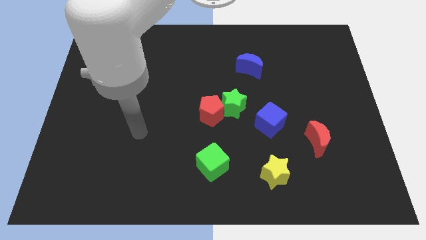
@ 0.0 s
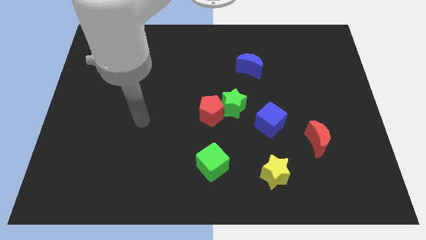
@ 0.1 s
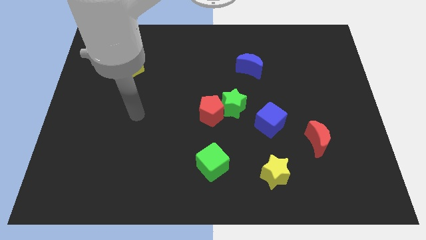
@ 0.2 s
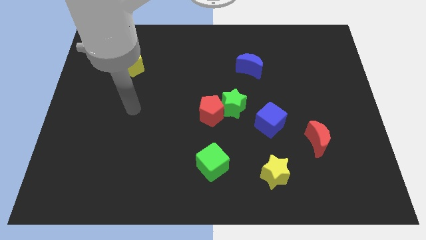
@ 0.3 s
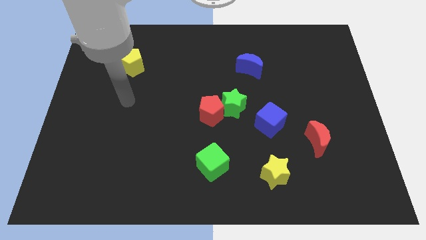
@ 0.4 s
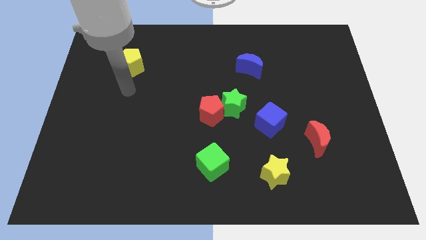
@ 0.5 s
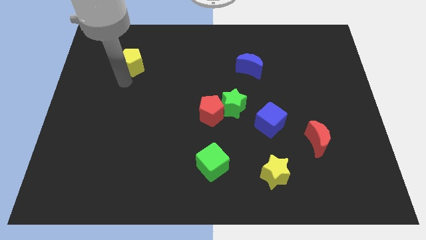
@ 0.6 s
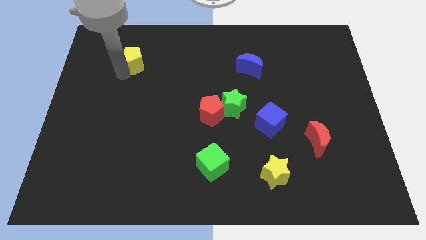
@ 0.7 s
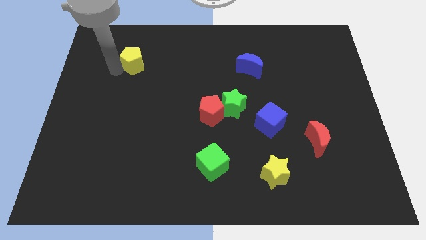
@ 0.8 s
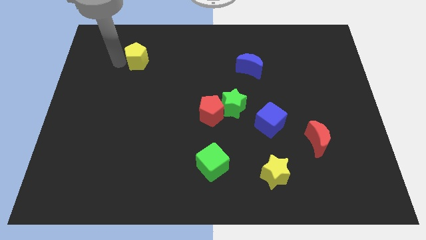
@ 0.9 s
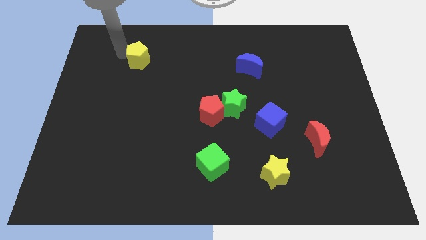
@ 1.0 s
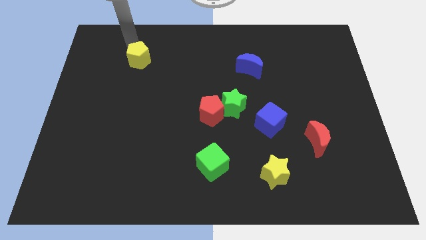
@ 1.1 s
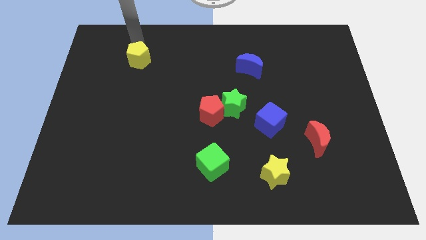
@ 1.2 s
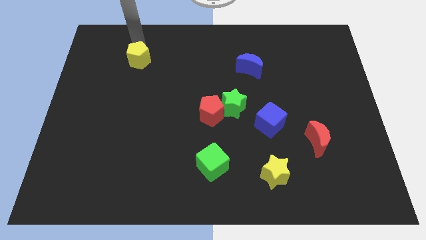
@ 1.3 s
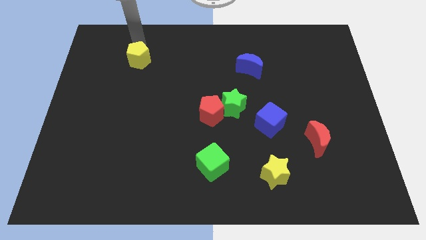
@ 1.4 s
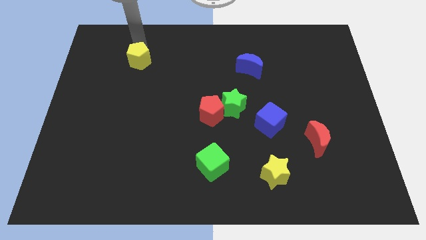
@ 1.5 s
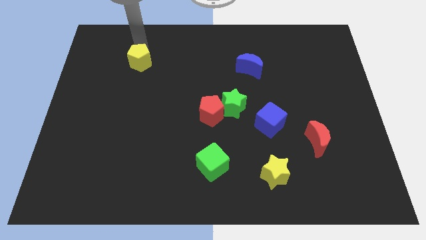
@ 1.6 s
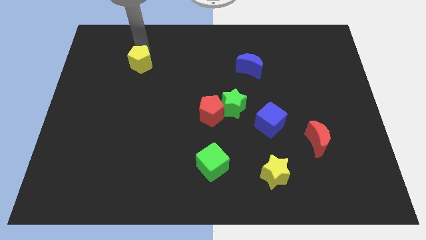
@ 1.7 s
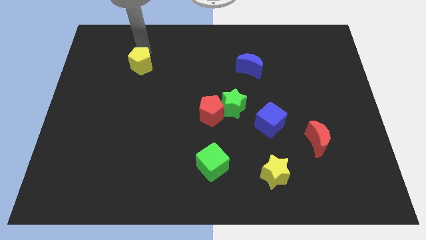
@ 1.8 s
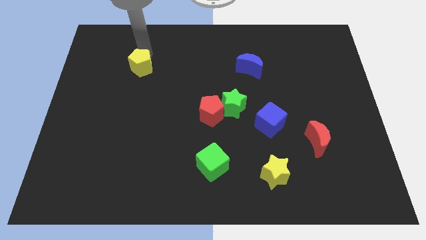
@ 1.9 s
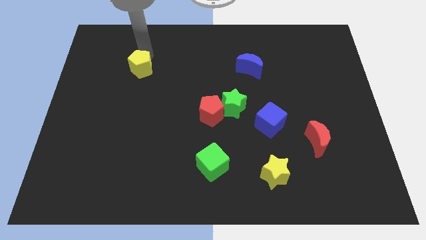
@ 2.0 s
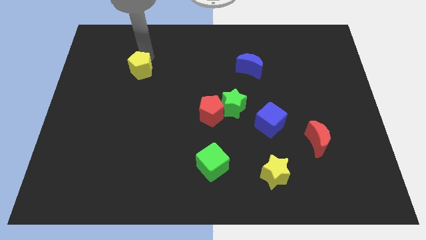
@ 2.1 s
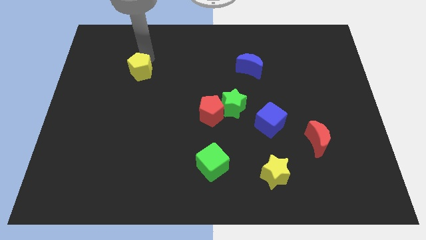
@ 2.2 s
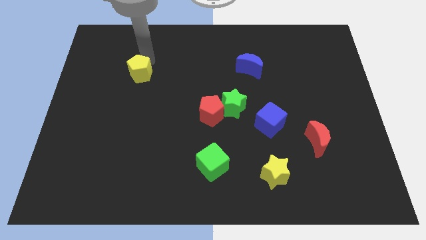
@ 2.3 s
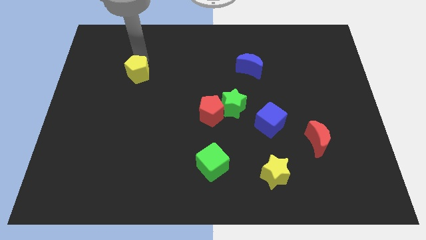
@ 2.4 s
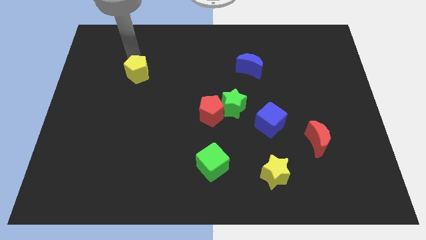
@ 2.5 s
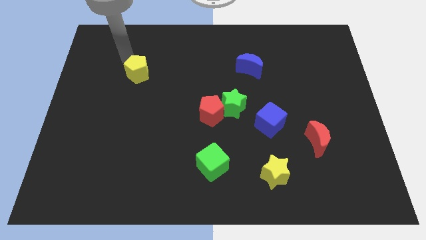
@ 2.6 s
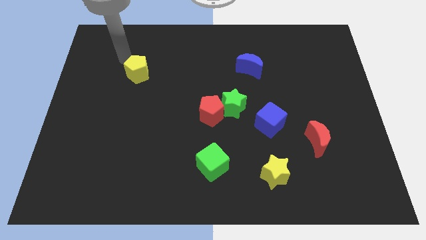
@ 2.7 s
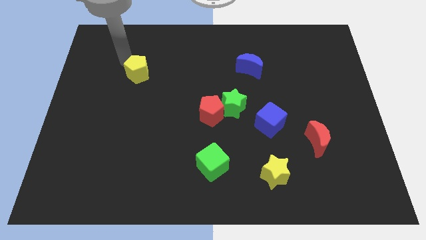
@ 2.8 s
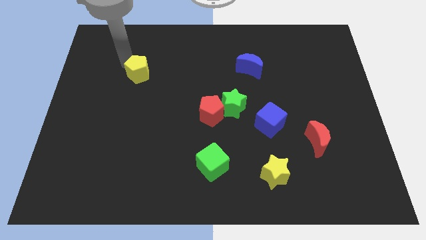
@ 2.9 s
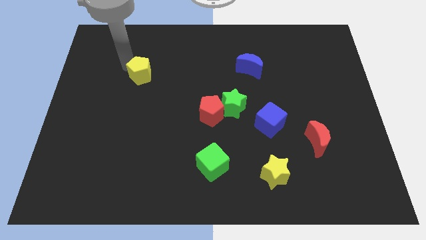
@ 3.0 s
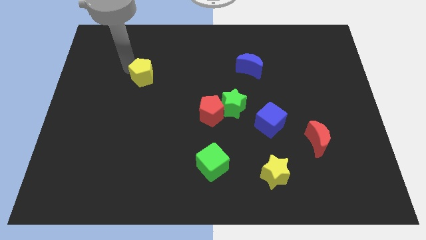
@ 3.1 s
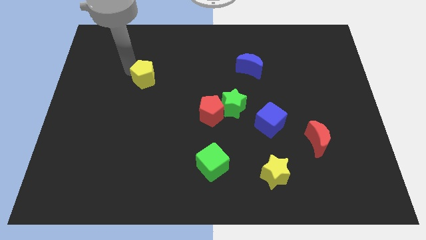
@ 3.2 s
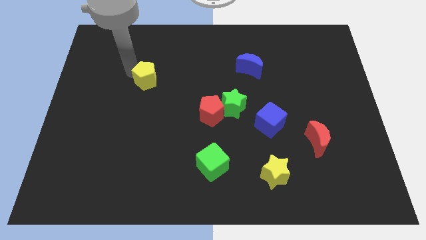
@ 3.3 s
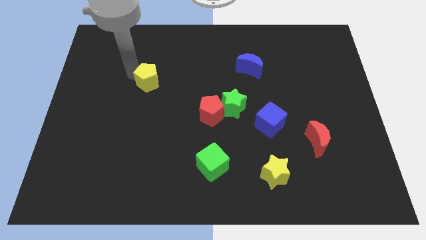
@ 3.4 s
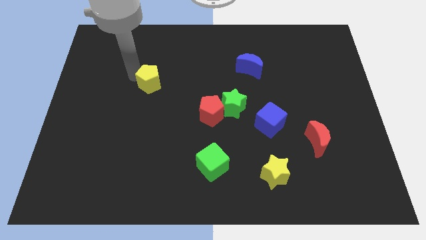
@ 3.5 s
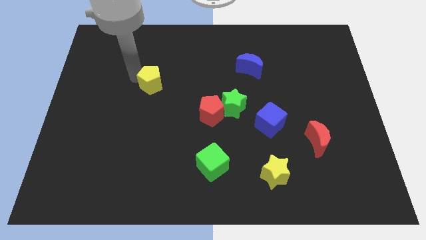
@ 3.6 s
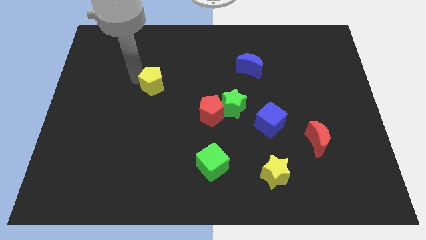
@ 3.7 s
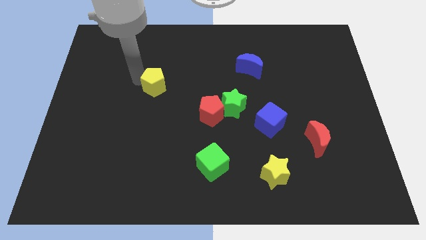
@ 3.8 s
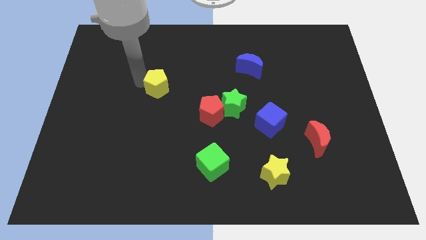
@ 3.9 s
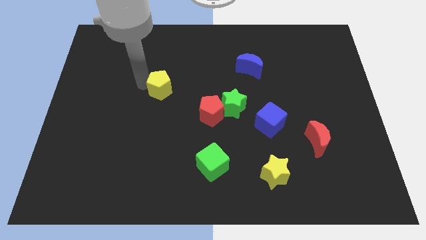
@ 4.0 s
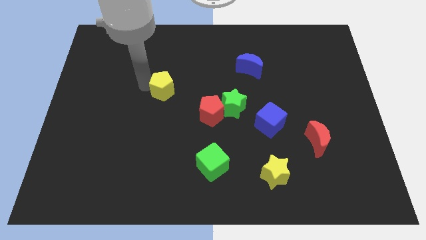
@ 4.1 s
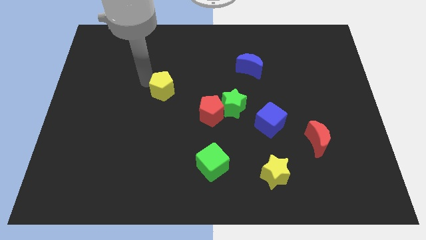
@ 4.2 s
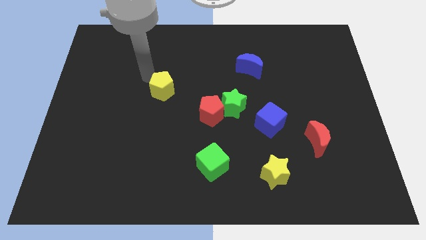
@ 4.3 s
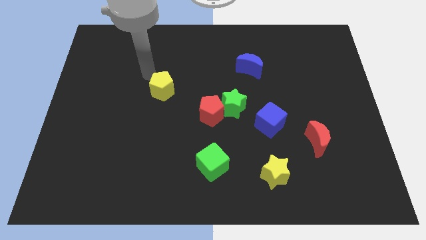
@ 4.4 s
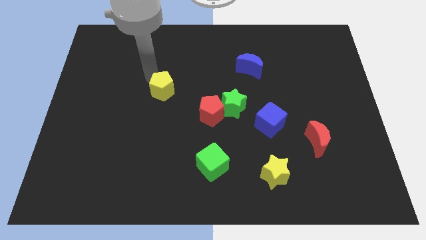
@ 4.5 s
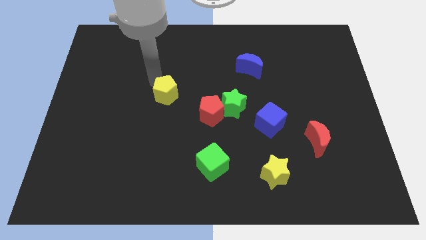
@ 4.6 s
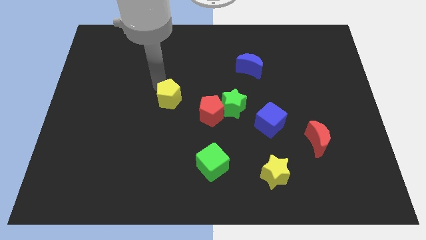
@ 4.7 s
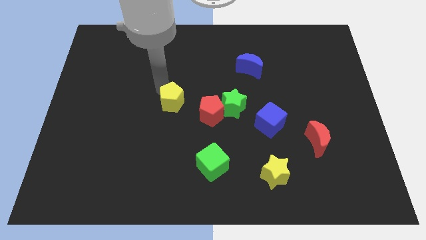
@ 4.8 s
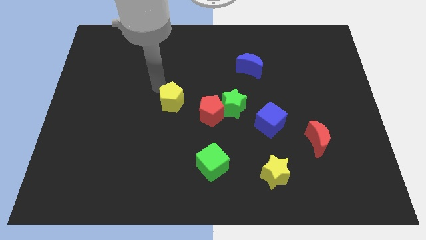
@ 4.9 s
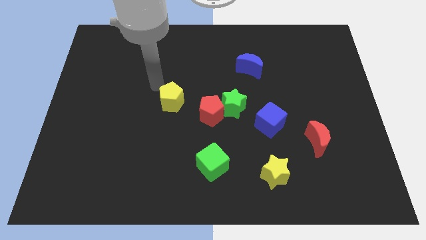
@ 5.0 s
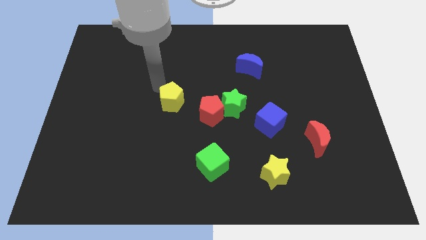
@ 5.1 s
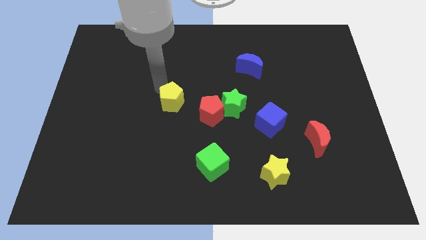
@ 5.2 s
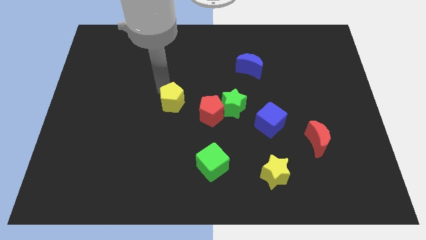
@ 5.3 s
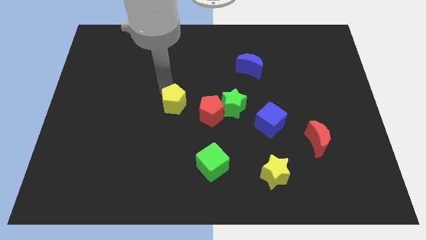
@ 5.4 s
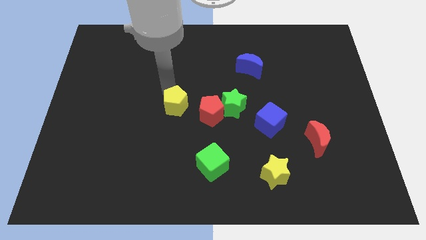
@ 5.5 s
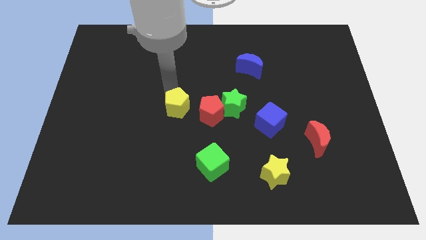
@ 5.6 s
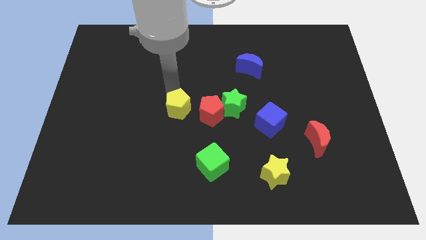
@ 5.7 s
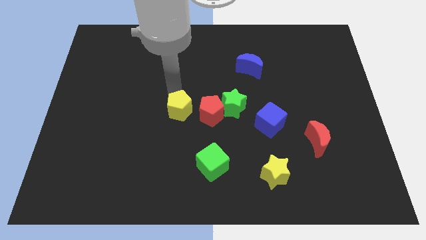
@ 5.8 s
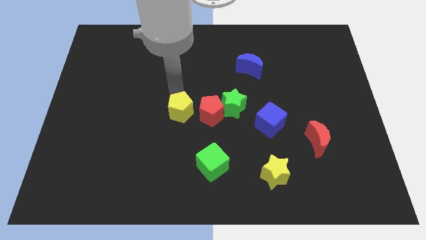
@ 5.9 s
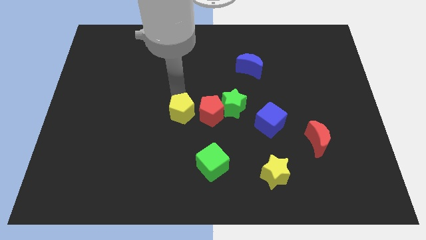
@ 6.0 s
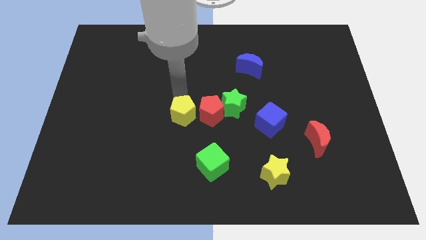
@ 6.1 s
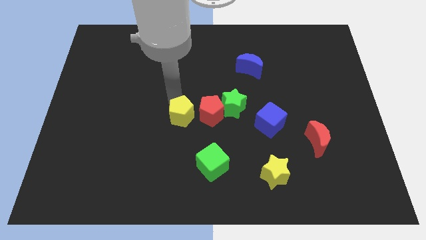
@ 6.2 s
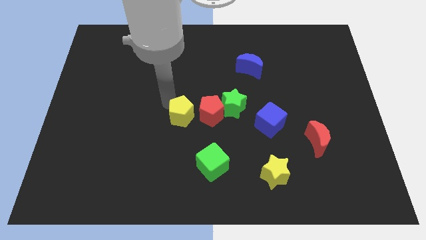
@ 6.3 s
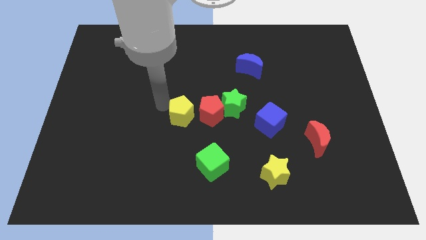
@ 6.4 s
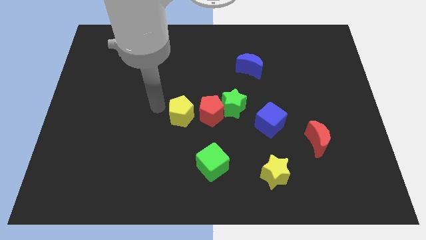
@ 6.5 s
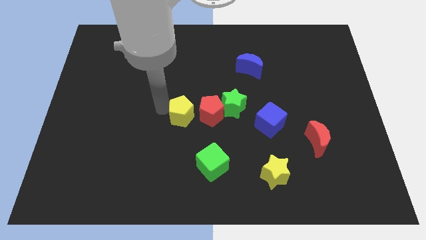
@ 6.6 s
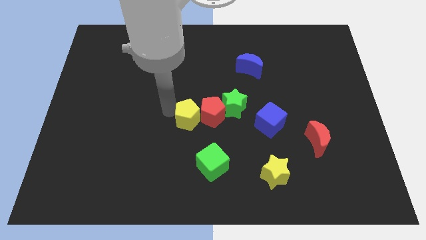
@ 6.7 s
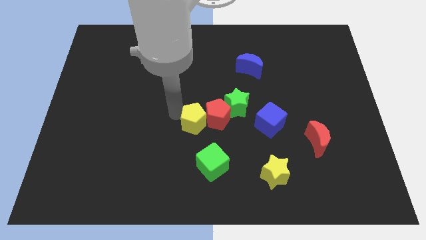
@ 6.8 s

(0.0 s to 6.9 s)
put the yellow pentagon diagonally down and to the left of the green star

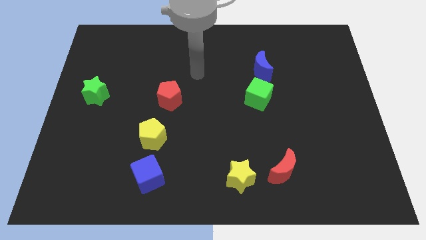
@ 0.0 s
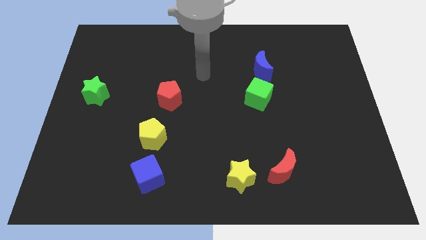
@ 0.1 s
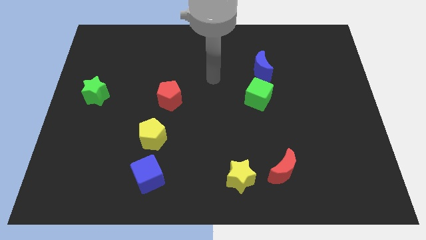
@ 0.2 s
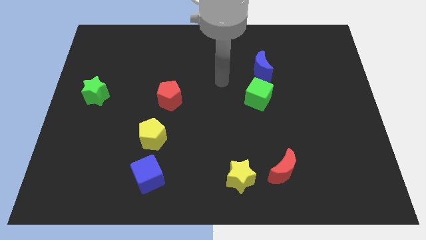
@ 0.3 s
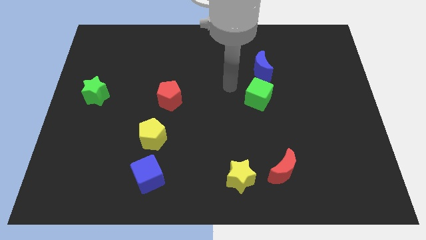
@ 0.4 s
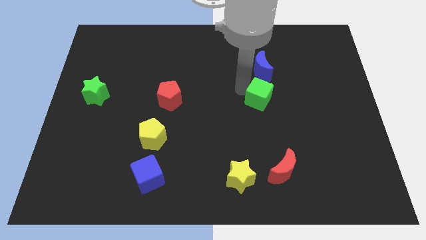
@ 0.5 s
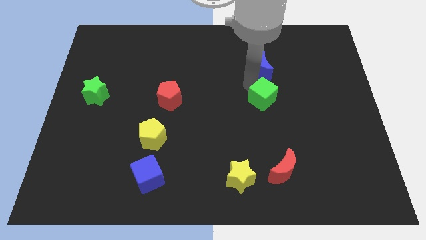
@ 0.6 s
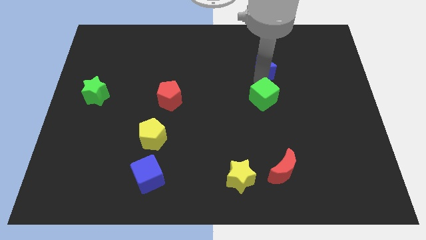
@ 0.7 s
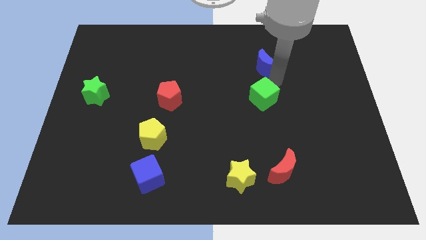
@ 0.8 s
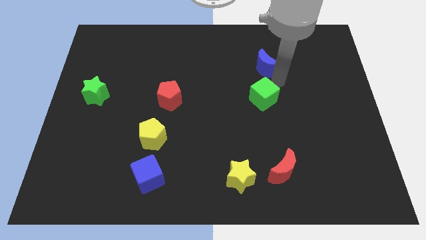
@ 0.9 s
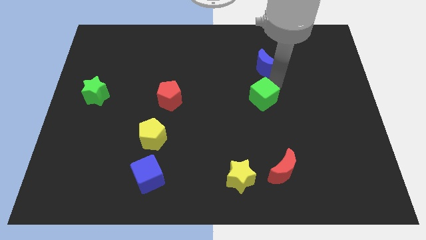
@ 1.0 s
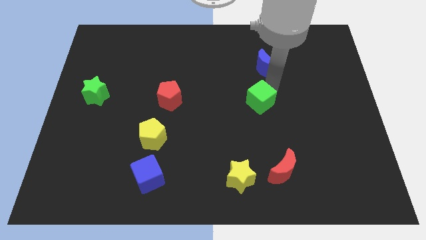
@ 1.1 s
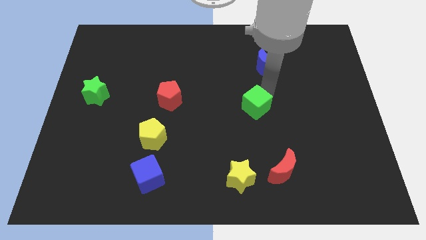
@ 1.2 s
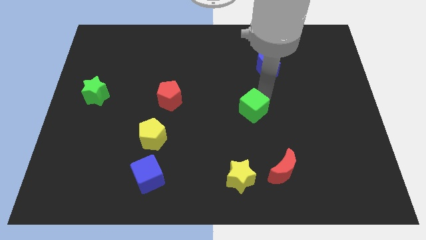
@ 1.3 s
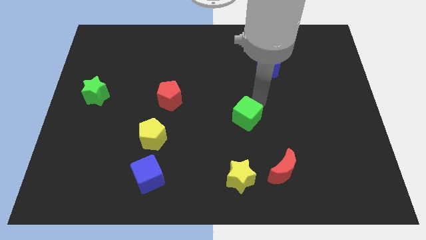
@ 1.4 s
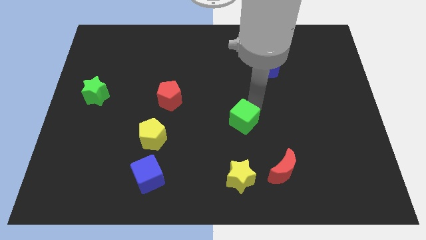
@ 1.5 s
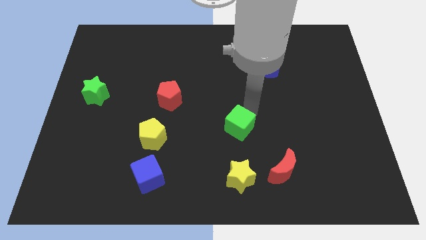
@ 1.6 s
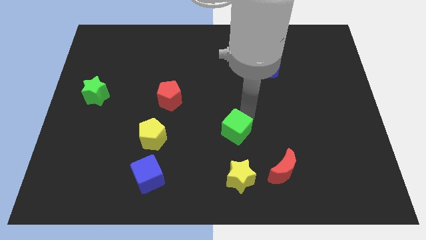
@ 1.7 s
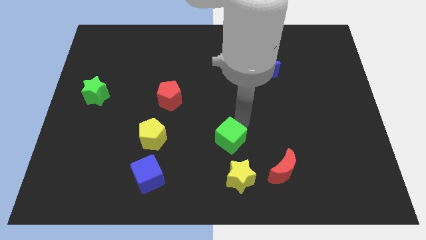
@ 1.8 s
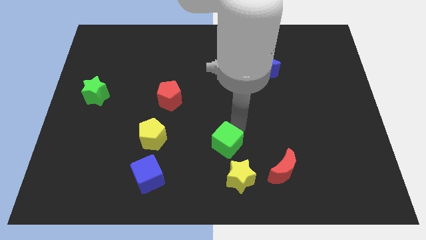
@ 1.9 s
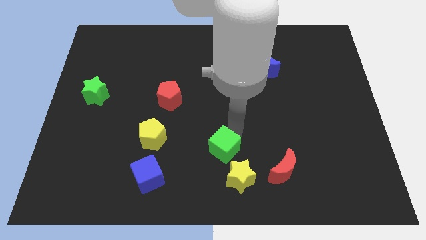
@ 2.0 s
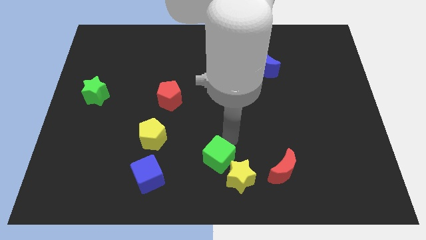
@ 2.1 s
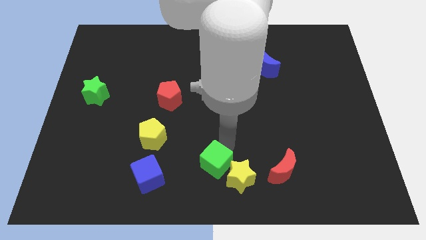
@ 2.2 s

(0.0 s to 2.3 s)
move the green cube to the right side of the blue cube
